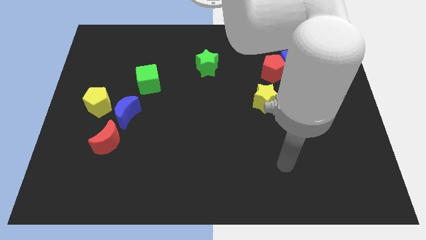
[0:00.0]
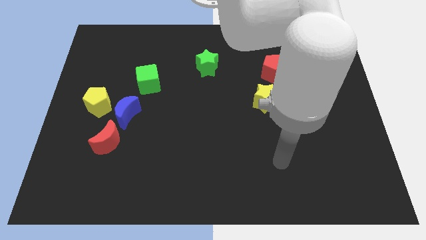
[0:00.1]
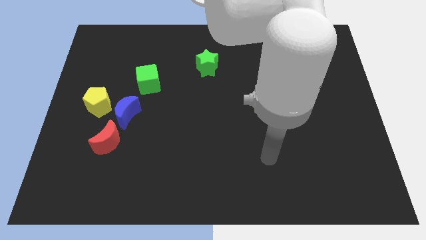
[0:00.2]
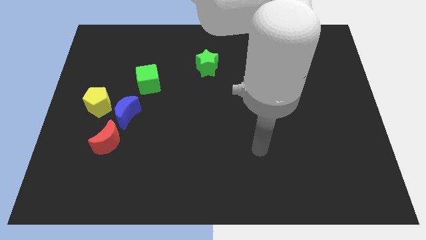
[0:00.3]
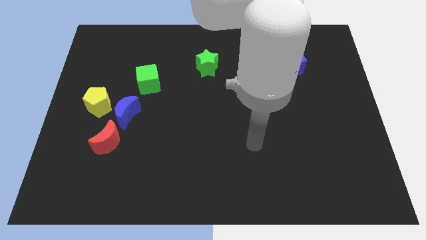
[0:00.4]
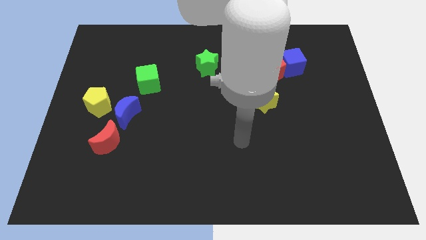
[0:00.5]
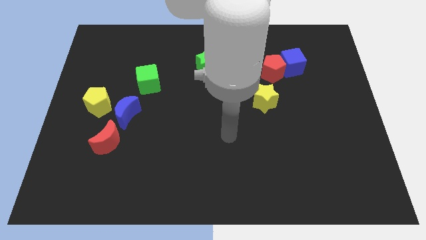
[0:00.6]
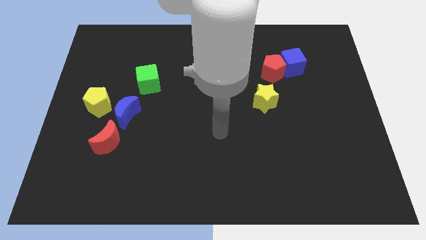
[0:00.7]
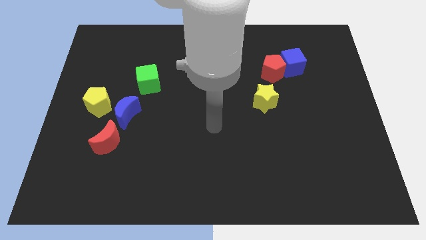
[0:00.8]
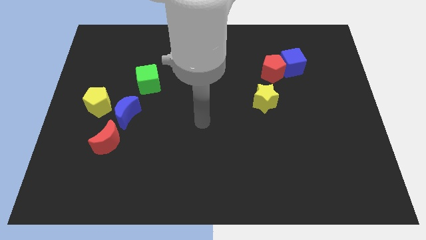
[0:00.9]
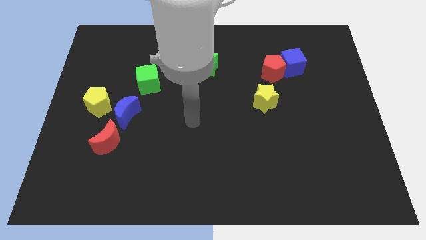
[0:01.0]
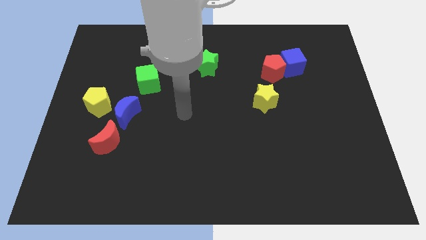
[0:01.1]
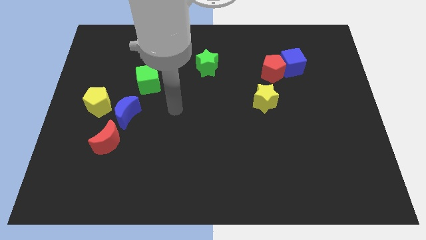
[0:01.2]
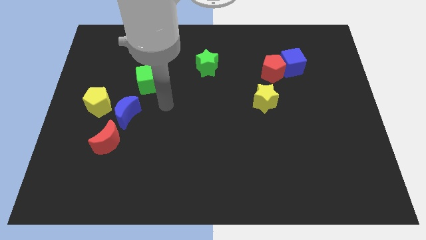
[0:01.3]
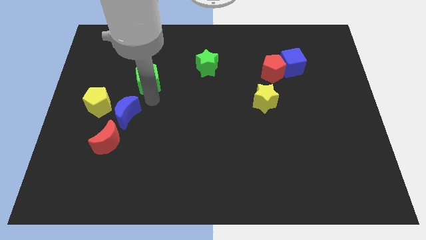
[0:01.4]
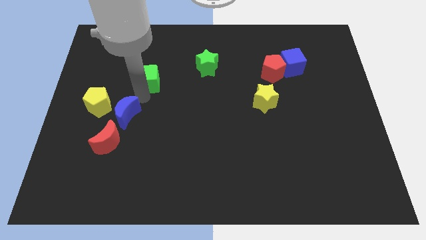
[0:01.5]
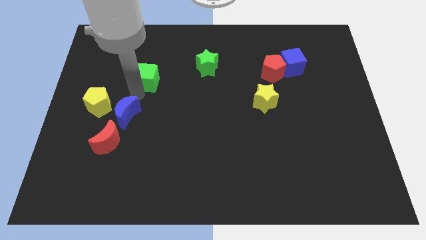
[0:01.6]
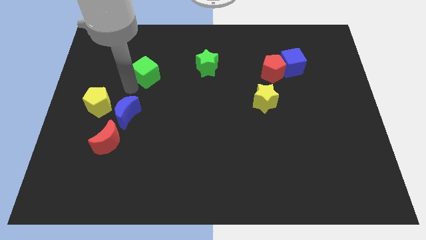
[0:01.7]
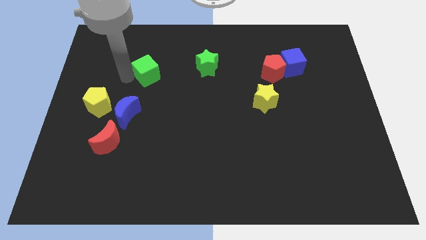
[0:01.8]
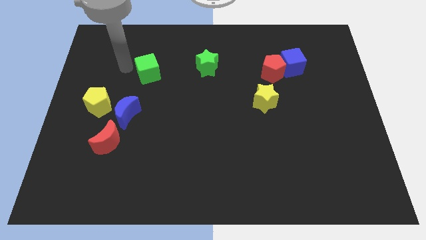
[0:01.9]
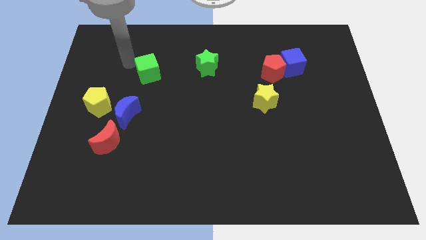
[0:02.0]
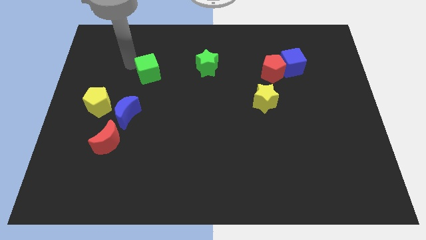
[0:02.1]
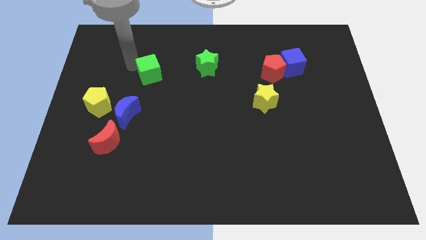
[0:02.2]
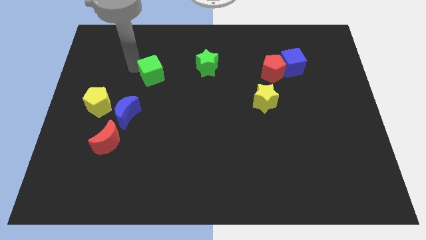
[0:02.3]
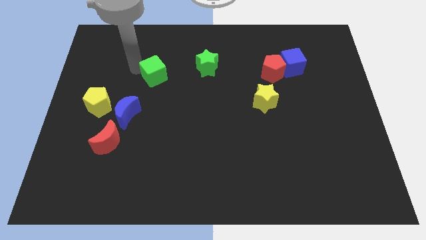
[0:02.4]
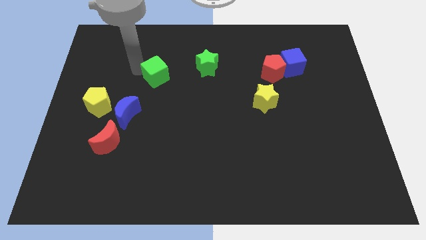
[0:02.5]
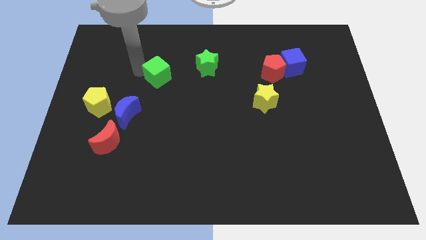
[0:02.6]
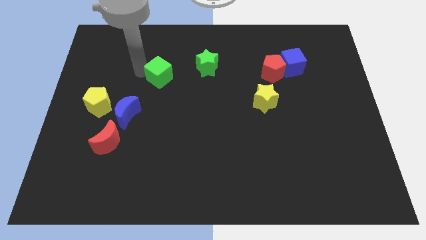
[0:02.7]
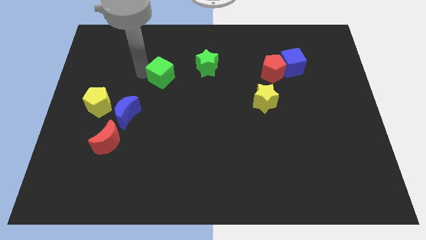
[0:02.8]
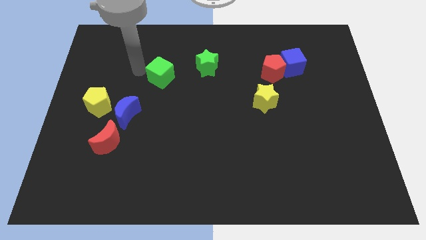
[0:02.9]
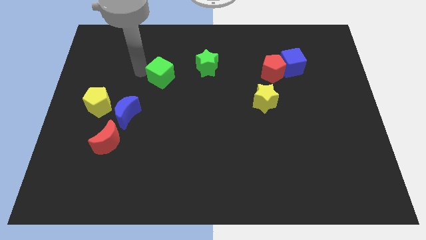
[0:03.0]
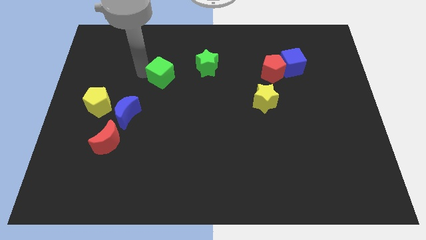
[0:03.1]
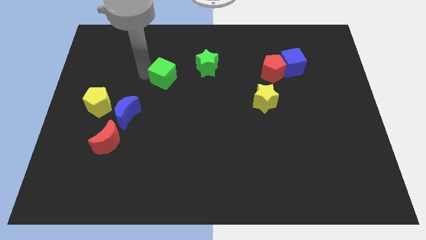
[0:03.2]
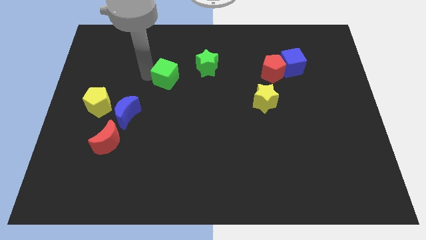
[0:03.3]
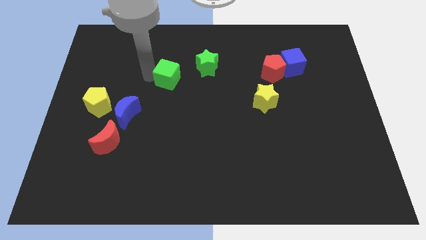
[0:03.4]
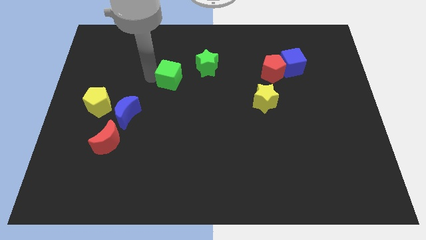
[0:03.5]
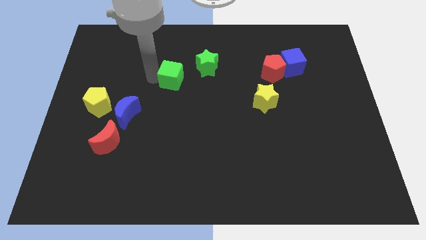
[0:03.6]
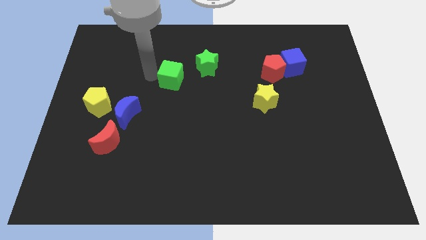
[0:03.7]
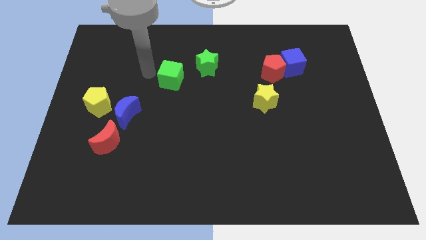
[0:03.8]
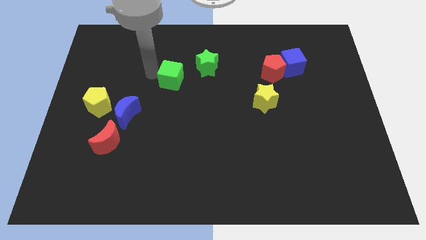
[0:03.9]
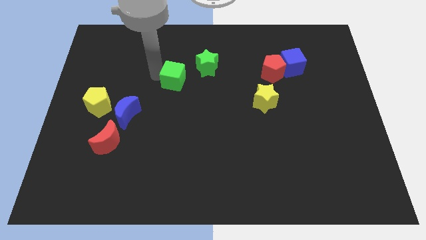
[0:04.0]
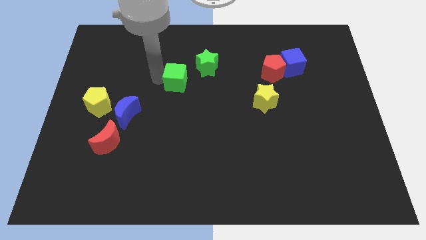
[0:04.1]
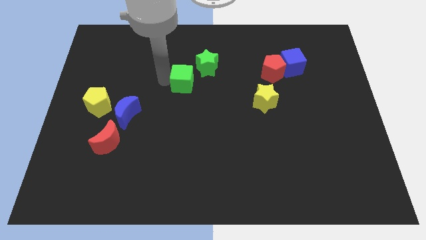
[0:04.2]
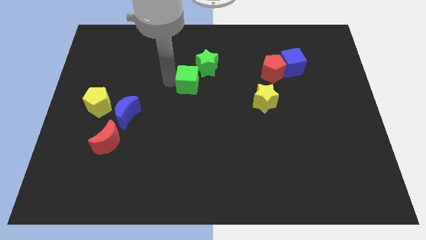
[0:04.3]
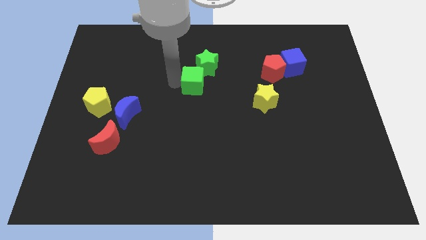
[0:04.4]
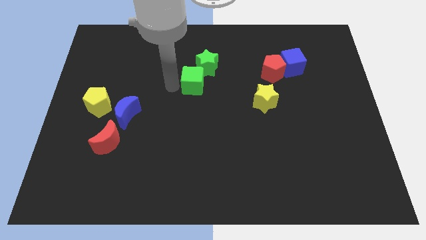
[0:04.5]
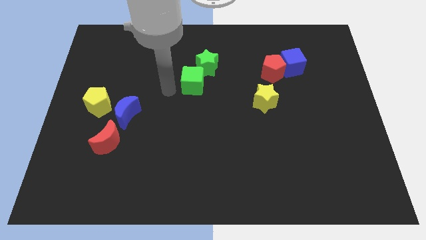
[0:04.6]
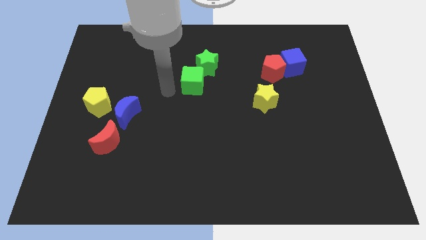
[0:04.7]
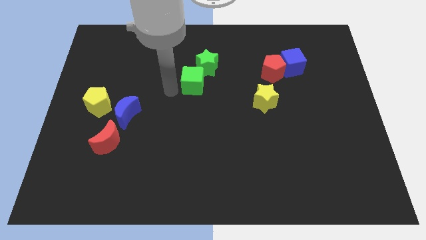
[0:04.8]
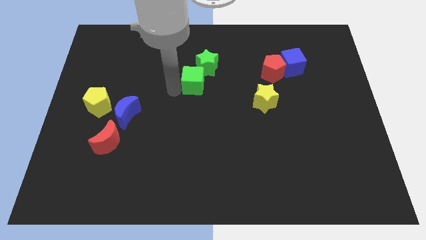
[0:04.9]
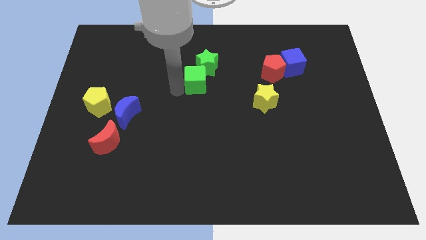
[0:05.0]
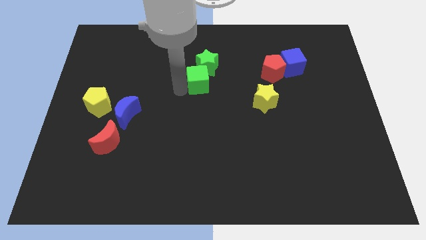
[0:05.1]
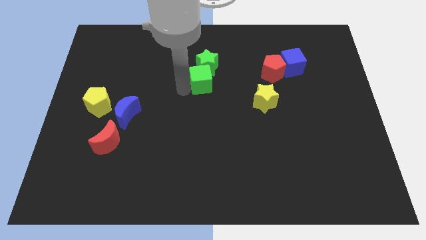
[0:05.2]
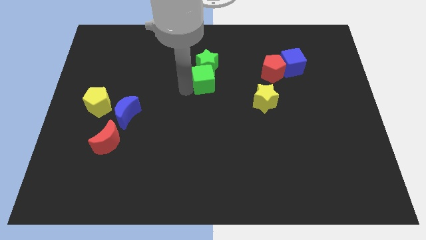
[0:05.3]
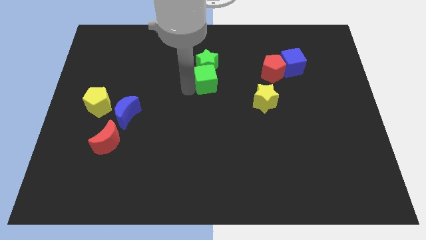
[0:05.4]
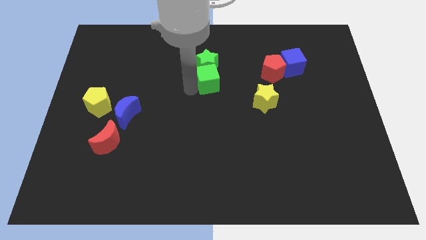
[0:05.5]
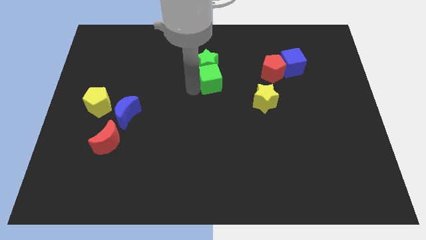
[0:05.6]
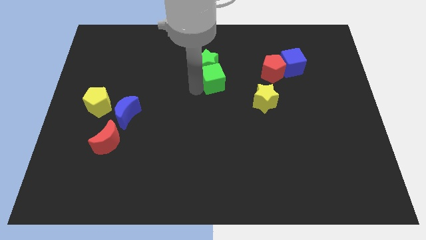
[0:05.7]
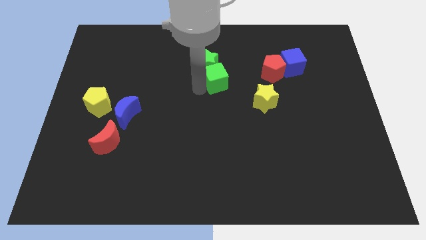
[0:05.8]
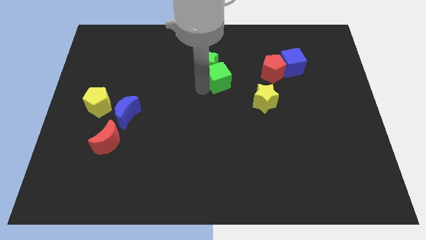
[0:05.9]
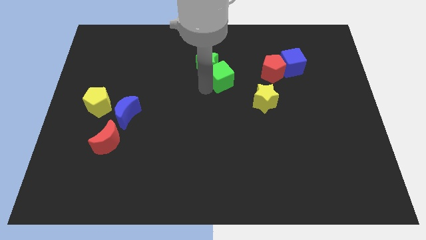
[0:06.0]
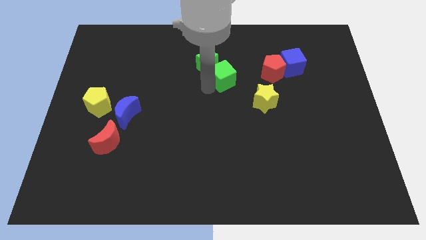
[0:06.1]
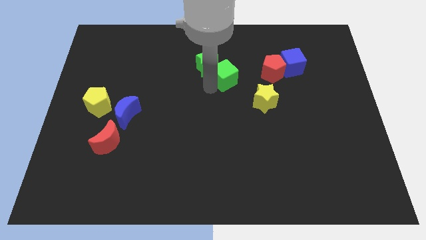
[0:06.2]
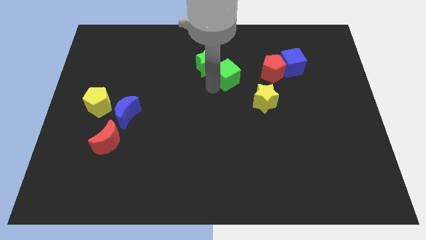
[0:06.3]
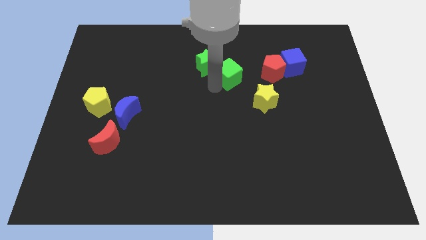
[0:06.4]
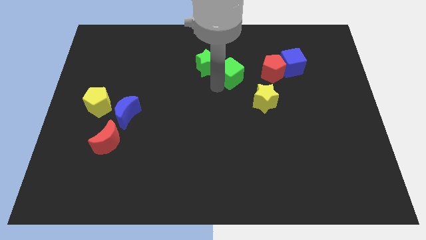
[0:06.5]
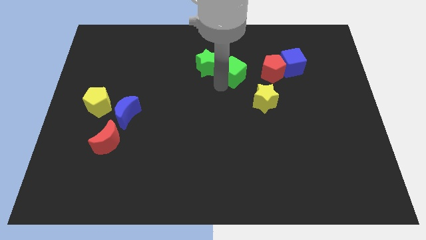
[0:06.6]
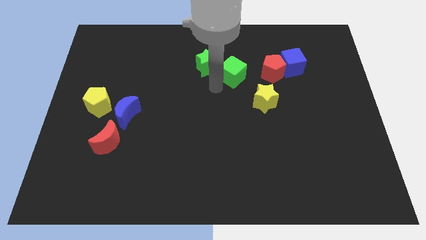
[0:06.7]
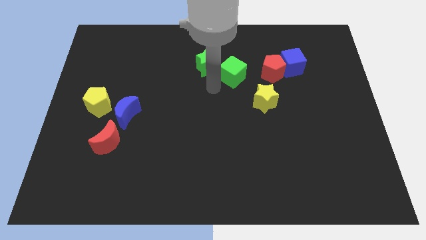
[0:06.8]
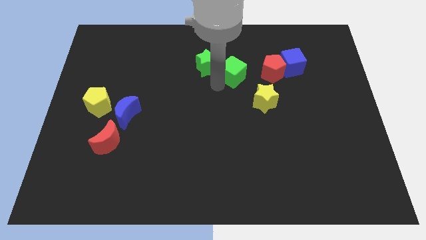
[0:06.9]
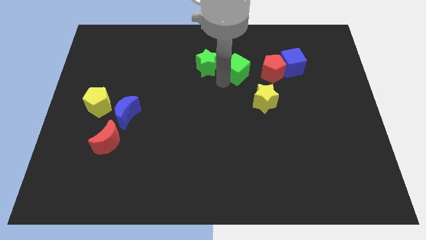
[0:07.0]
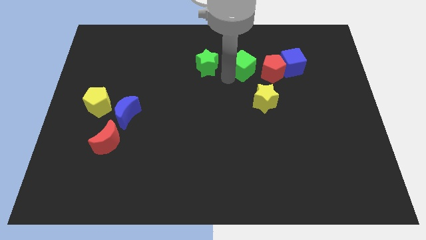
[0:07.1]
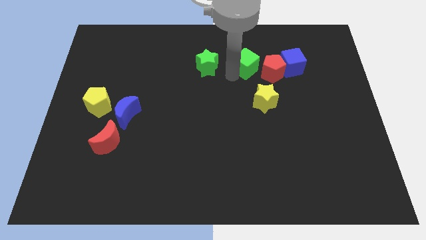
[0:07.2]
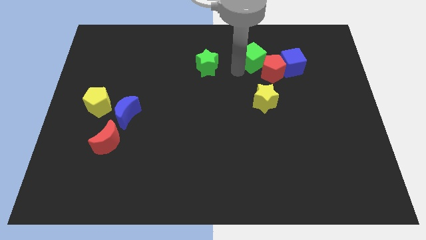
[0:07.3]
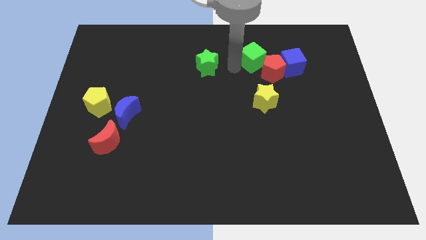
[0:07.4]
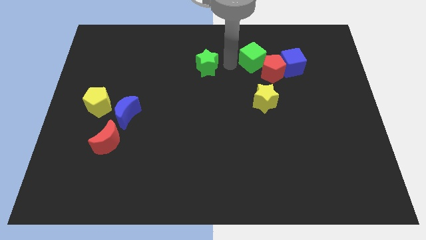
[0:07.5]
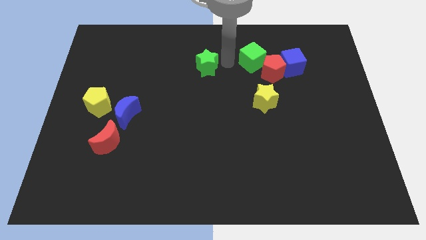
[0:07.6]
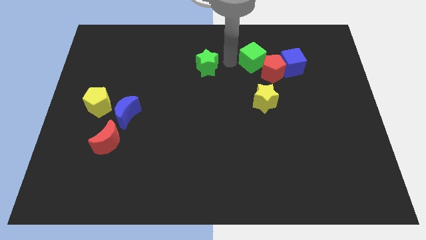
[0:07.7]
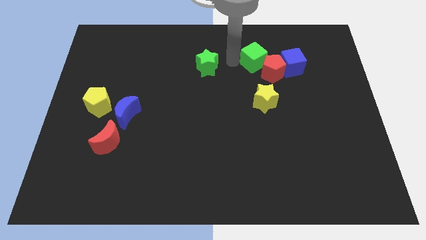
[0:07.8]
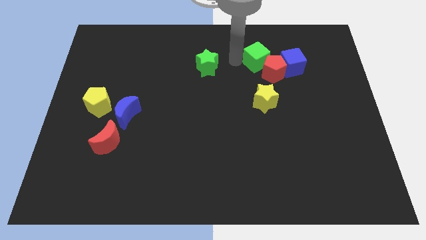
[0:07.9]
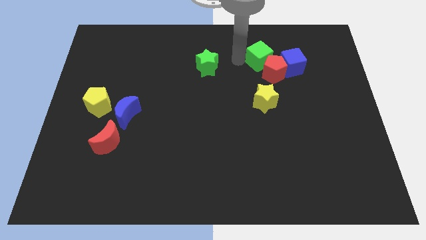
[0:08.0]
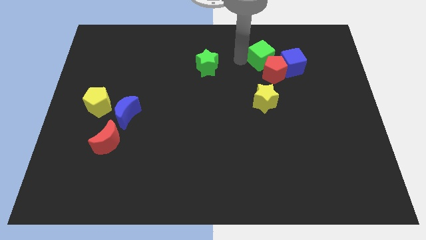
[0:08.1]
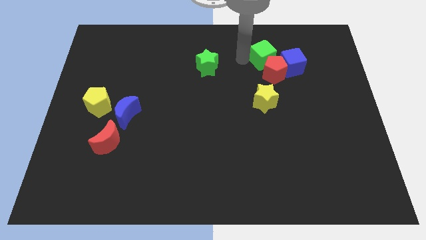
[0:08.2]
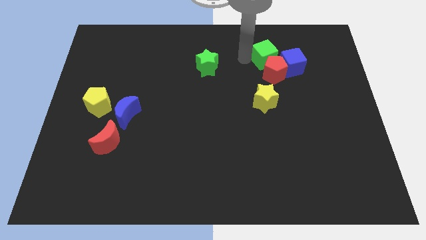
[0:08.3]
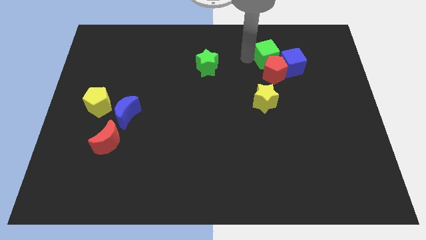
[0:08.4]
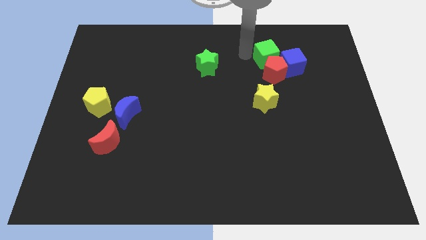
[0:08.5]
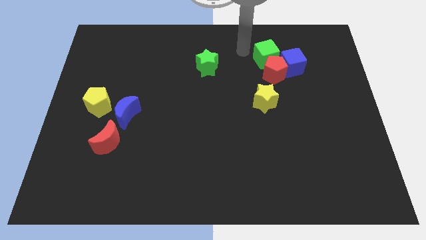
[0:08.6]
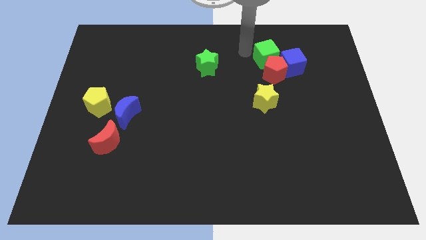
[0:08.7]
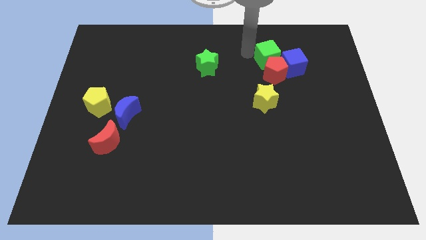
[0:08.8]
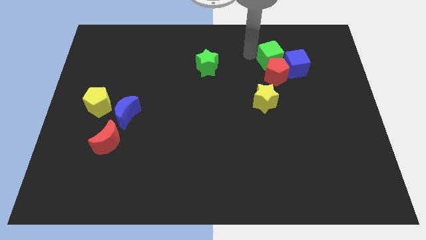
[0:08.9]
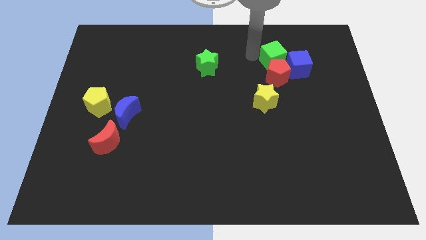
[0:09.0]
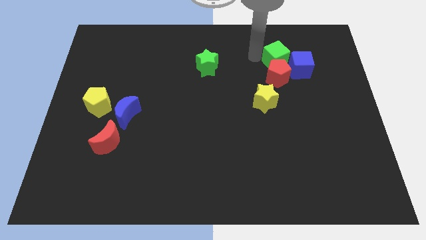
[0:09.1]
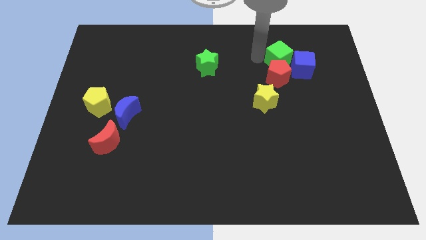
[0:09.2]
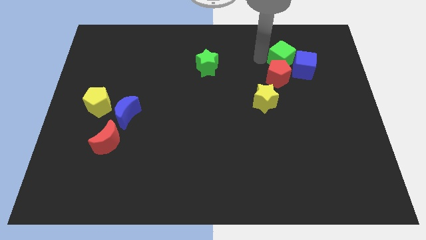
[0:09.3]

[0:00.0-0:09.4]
push the green cube towards the blue cube
